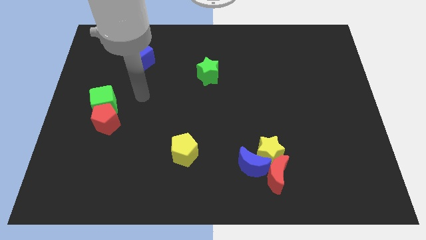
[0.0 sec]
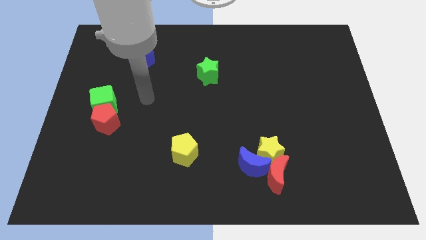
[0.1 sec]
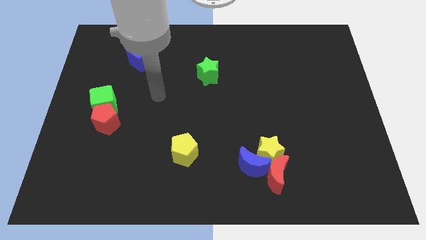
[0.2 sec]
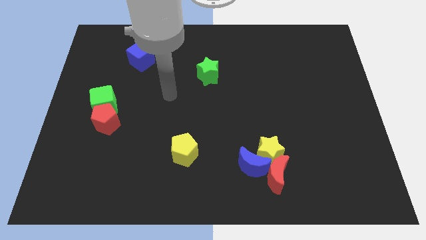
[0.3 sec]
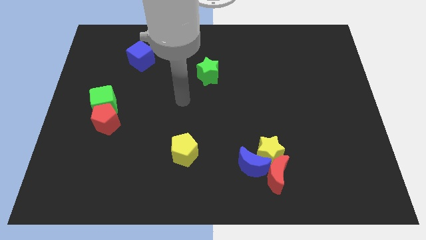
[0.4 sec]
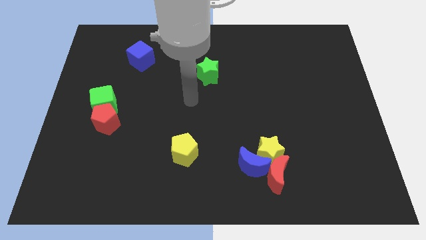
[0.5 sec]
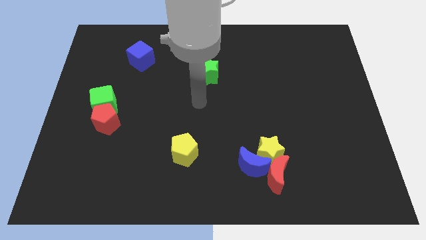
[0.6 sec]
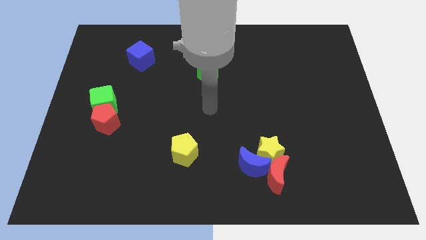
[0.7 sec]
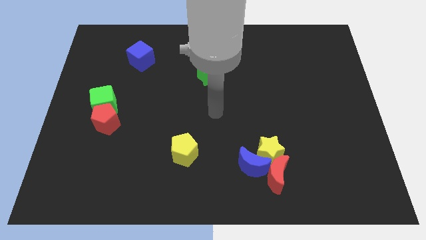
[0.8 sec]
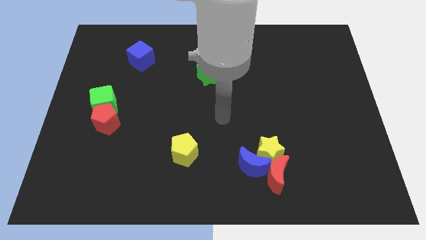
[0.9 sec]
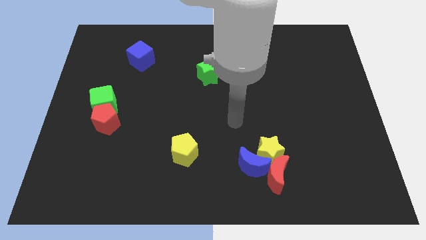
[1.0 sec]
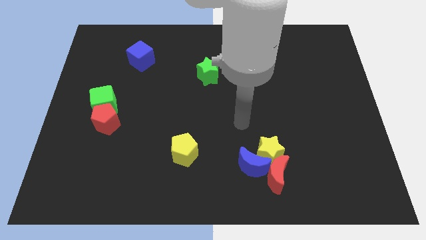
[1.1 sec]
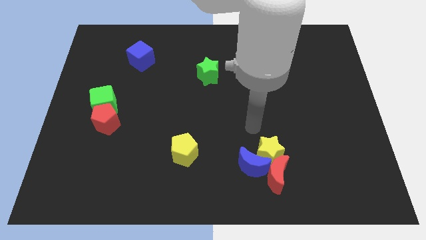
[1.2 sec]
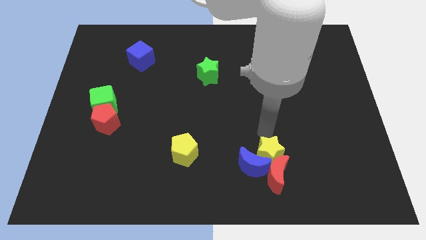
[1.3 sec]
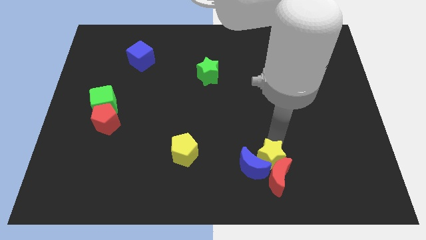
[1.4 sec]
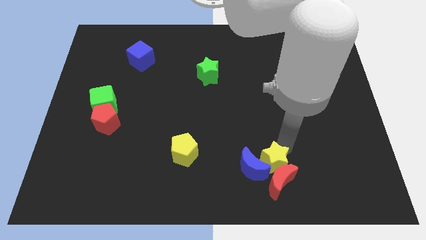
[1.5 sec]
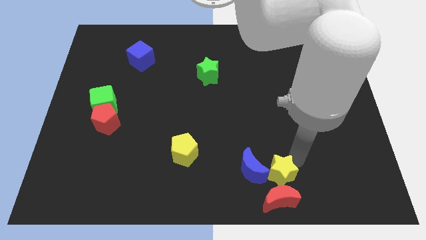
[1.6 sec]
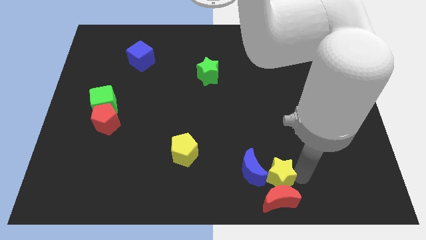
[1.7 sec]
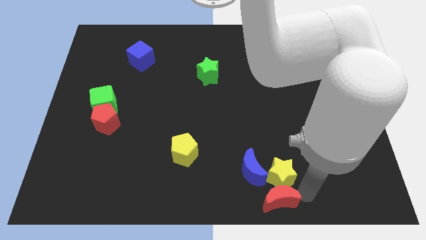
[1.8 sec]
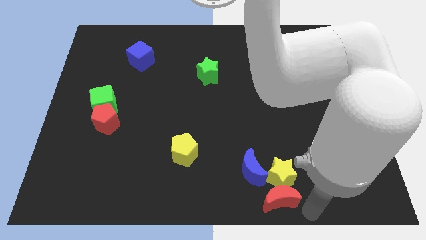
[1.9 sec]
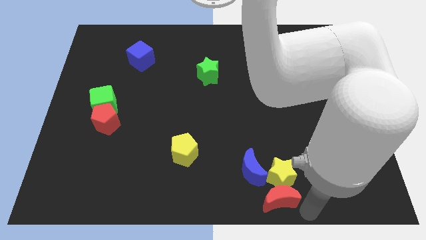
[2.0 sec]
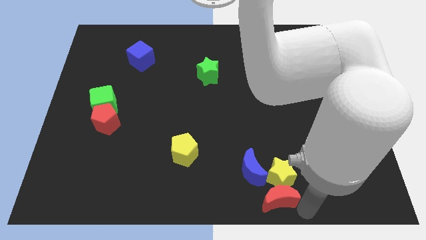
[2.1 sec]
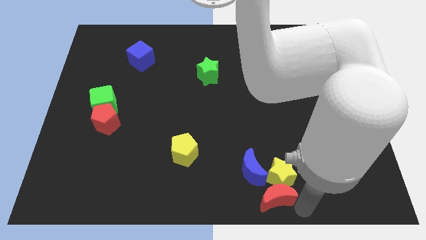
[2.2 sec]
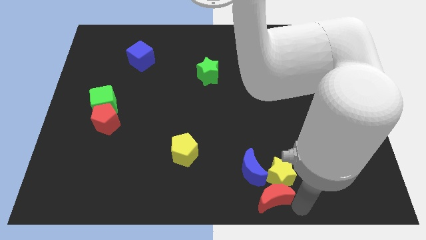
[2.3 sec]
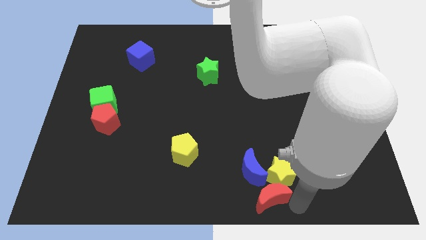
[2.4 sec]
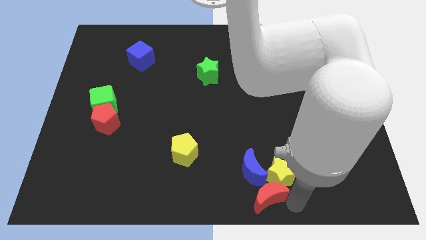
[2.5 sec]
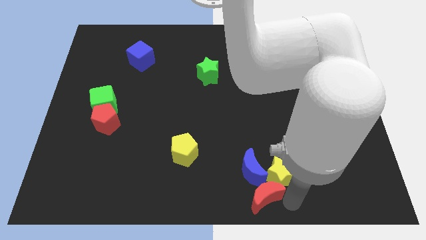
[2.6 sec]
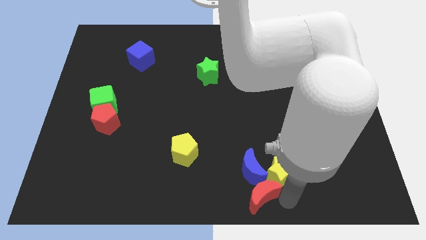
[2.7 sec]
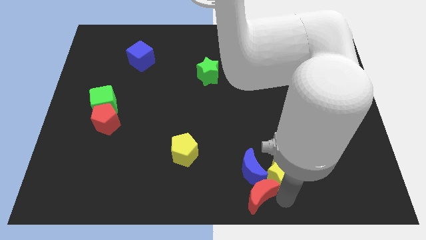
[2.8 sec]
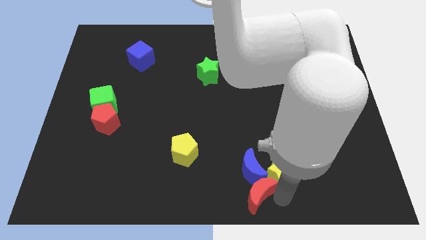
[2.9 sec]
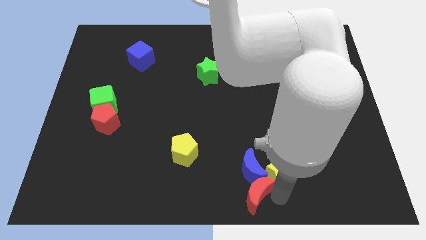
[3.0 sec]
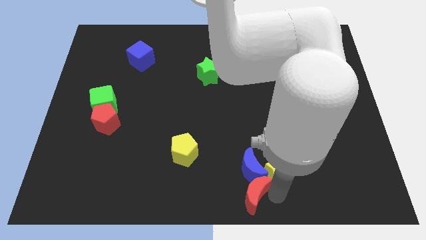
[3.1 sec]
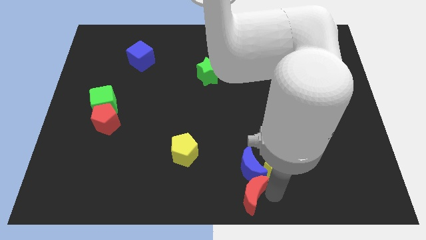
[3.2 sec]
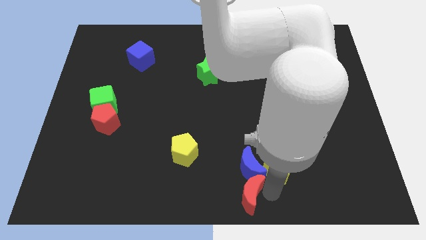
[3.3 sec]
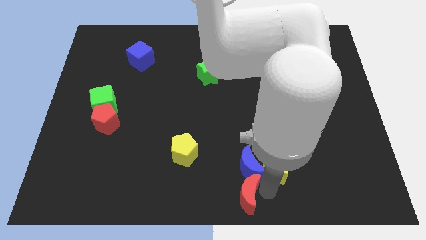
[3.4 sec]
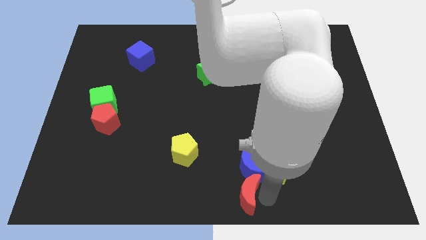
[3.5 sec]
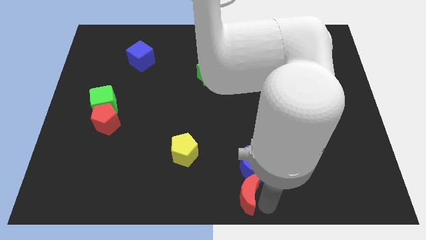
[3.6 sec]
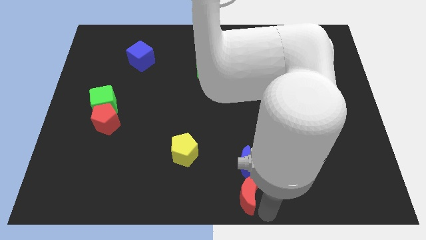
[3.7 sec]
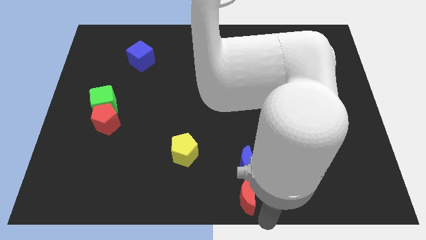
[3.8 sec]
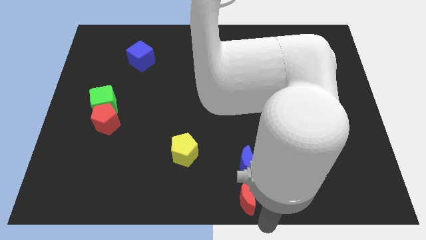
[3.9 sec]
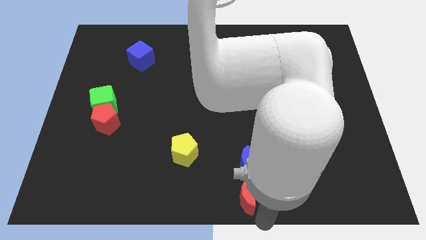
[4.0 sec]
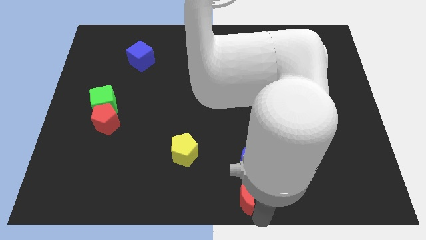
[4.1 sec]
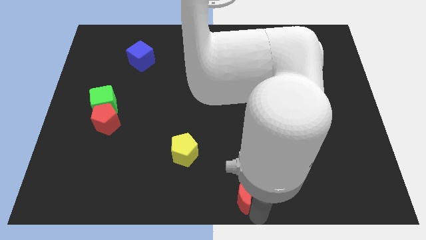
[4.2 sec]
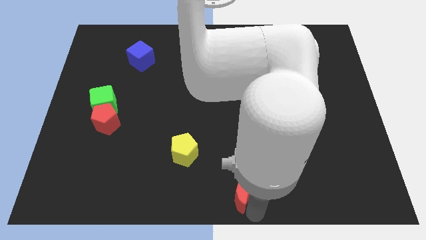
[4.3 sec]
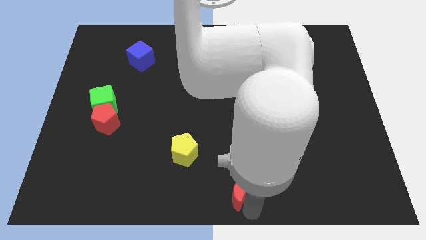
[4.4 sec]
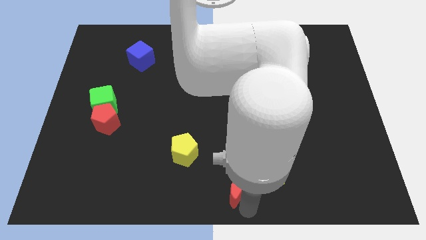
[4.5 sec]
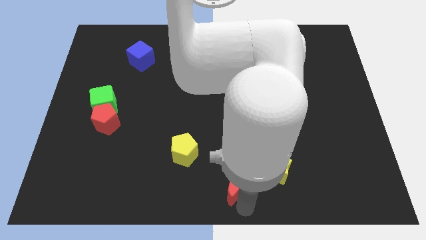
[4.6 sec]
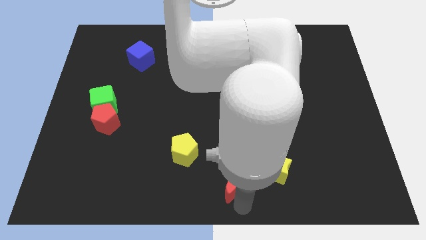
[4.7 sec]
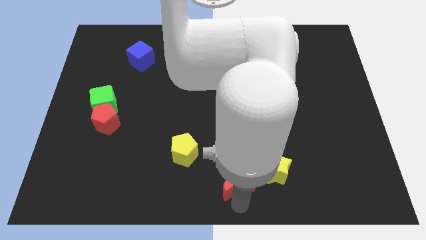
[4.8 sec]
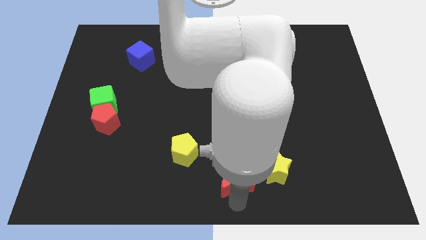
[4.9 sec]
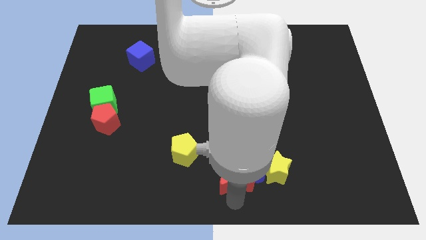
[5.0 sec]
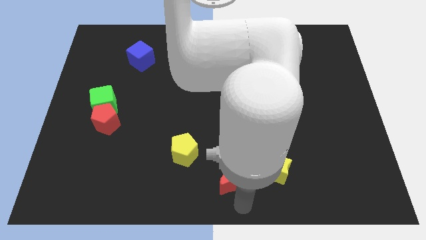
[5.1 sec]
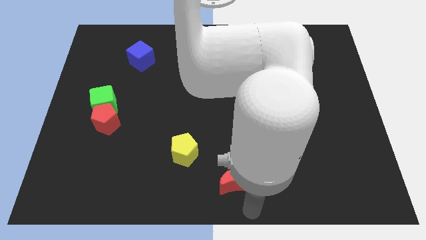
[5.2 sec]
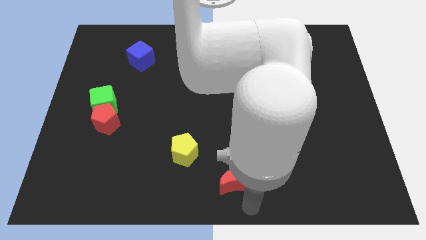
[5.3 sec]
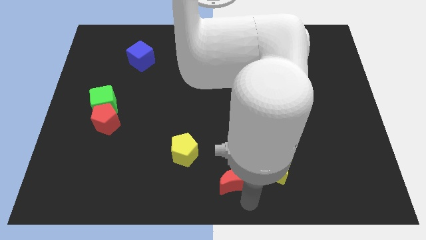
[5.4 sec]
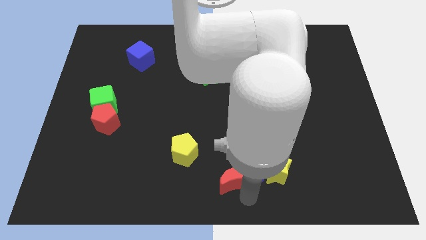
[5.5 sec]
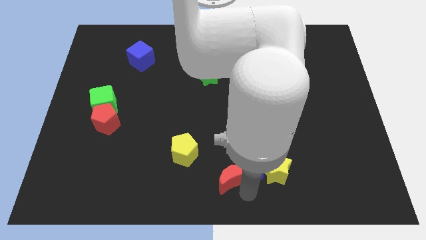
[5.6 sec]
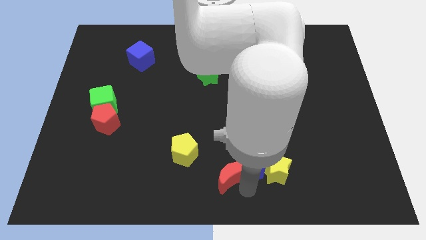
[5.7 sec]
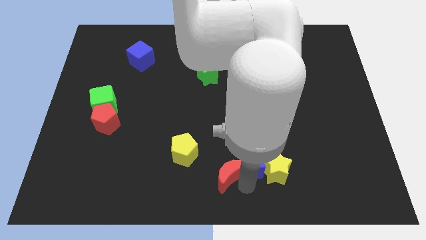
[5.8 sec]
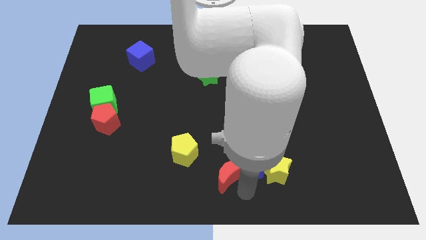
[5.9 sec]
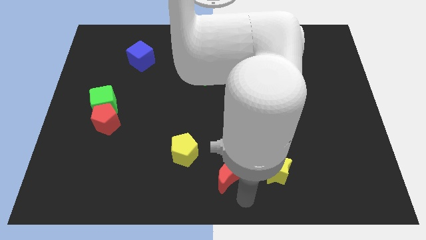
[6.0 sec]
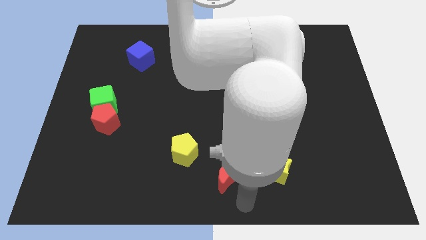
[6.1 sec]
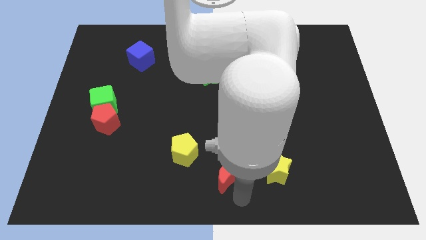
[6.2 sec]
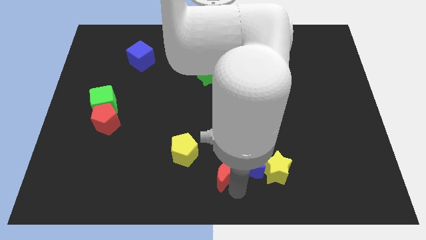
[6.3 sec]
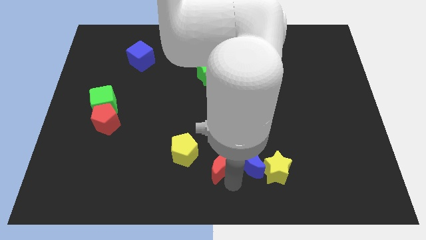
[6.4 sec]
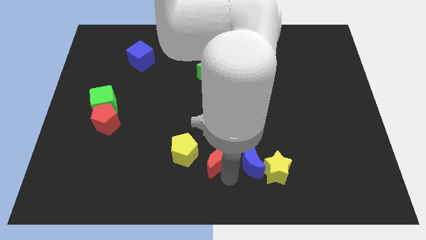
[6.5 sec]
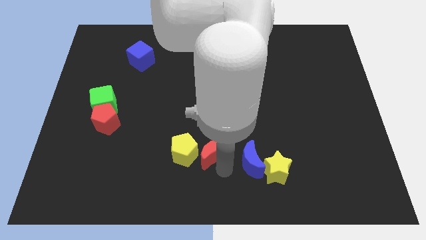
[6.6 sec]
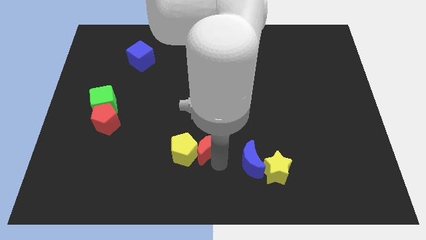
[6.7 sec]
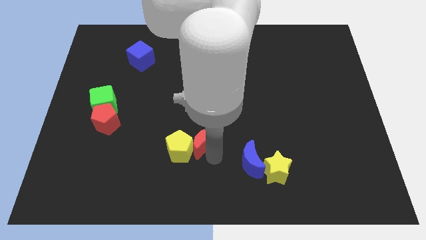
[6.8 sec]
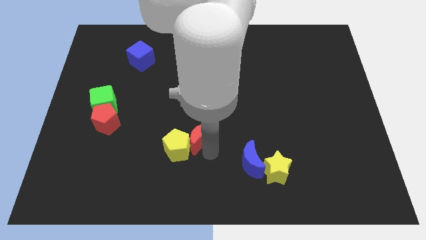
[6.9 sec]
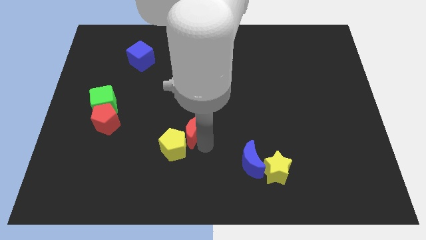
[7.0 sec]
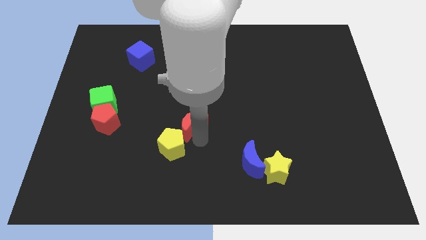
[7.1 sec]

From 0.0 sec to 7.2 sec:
move the red moon upwards and then left

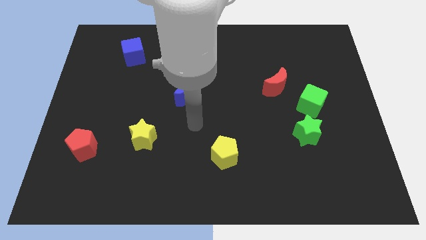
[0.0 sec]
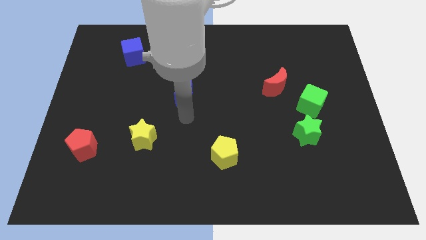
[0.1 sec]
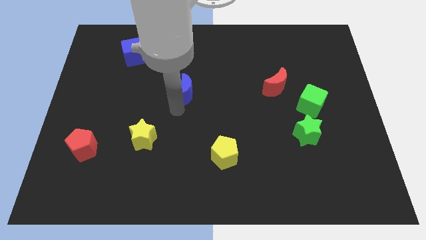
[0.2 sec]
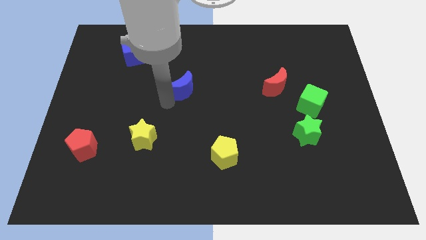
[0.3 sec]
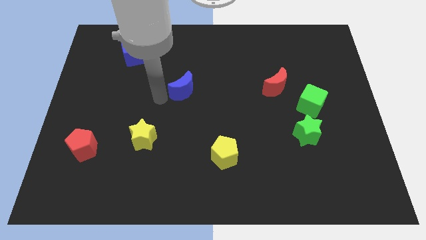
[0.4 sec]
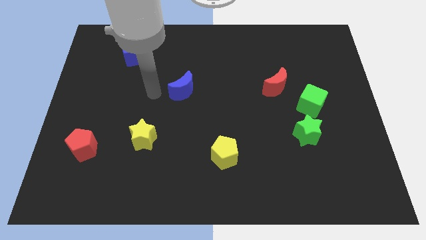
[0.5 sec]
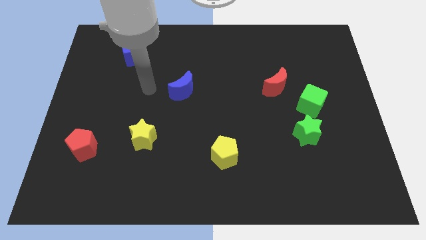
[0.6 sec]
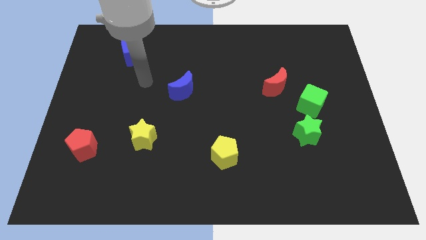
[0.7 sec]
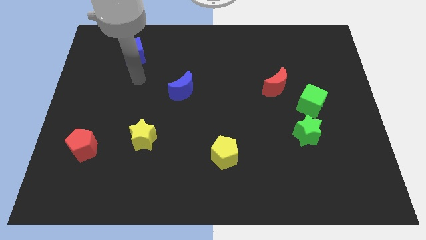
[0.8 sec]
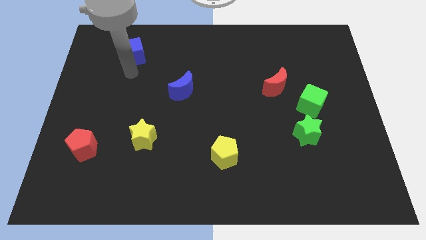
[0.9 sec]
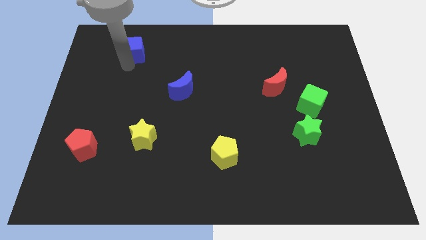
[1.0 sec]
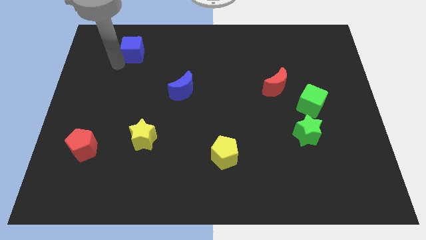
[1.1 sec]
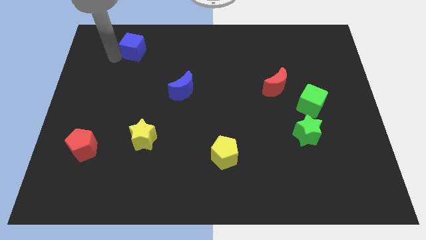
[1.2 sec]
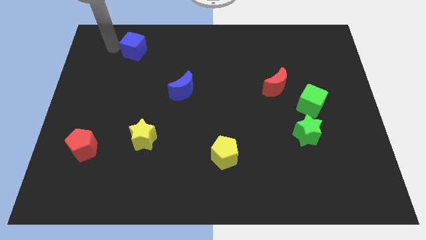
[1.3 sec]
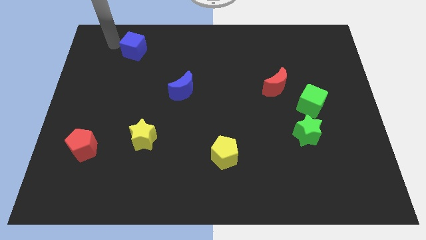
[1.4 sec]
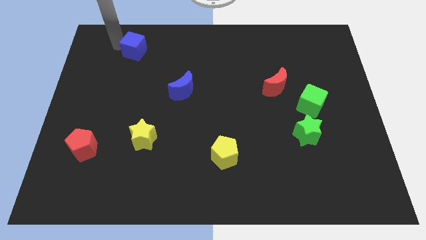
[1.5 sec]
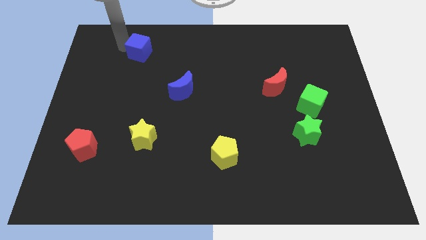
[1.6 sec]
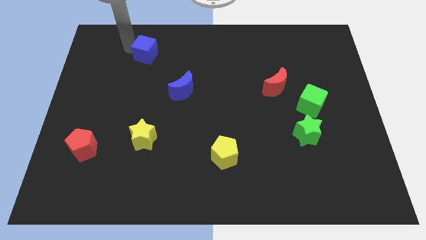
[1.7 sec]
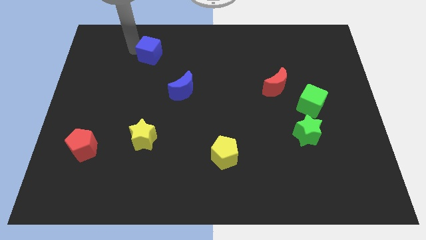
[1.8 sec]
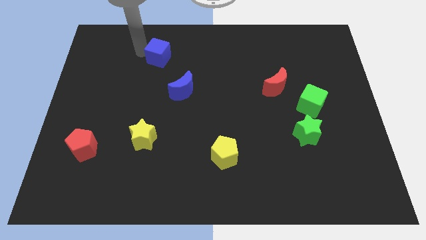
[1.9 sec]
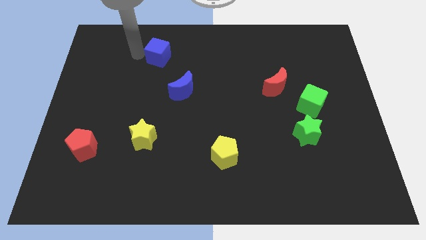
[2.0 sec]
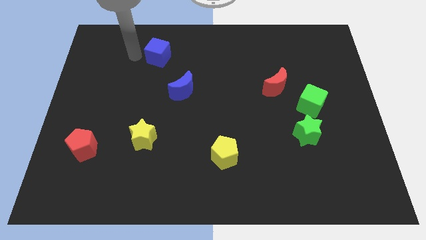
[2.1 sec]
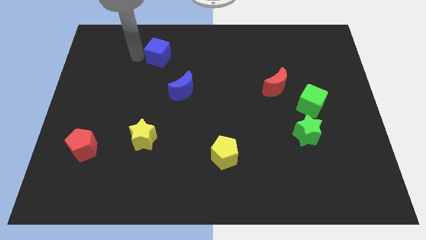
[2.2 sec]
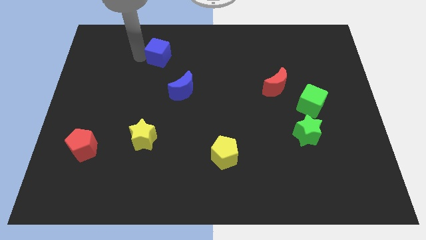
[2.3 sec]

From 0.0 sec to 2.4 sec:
slide the blue cube to the right somewhat
